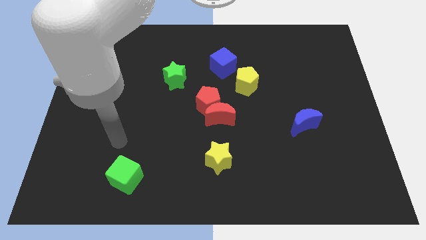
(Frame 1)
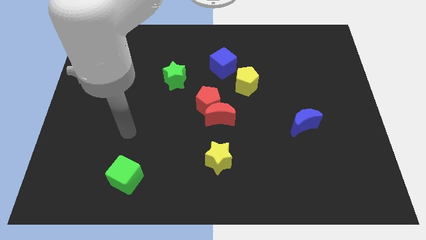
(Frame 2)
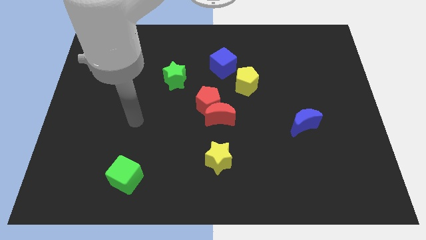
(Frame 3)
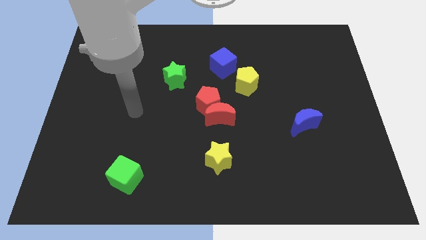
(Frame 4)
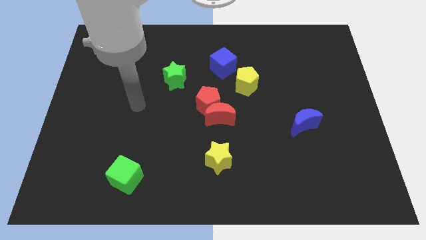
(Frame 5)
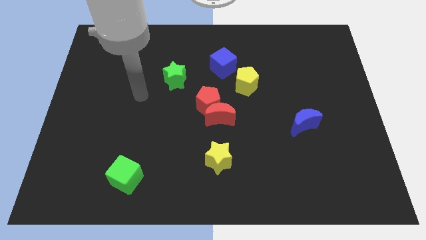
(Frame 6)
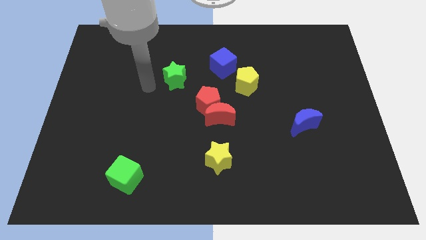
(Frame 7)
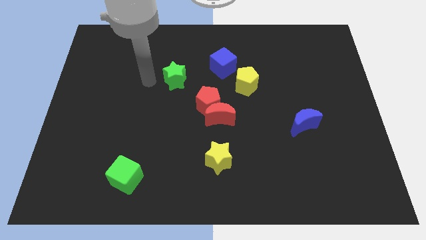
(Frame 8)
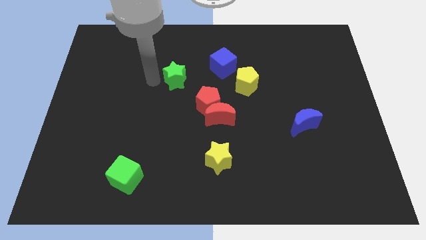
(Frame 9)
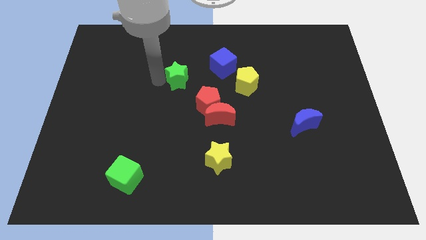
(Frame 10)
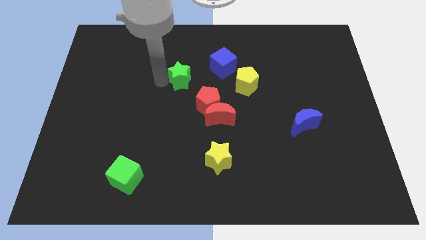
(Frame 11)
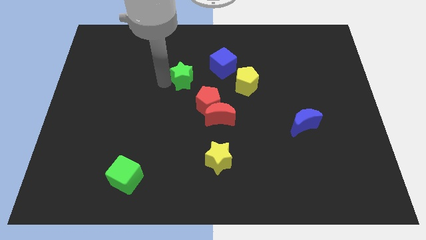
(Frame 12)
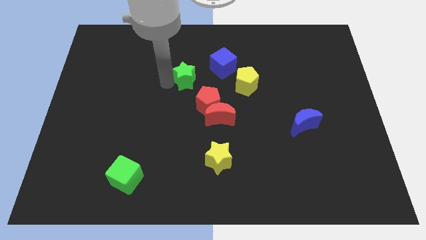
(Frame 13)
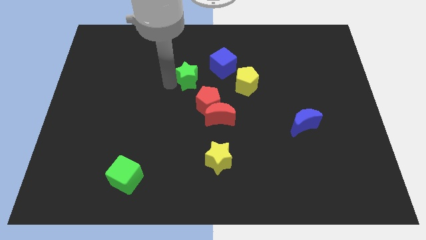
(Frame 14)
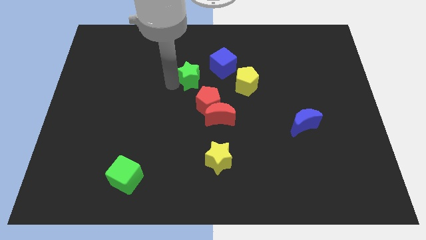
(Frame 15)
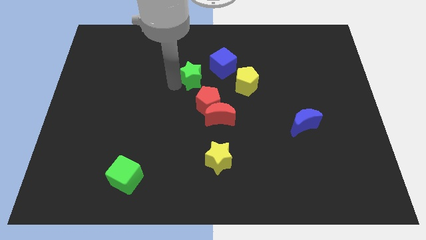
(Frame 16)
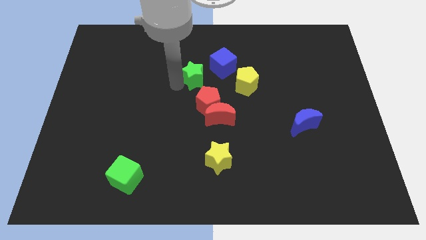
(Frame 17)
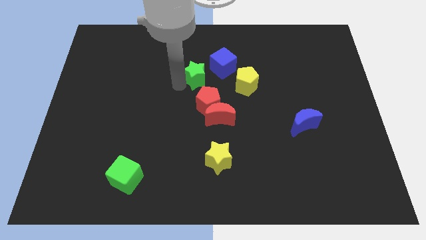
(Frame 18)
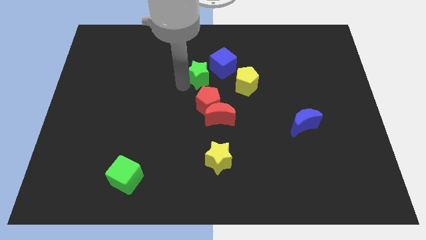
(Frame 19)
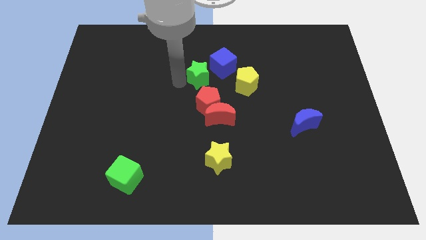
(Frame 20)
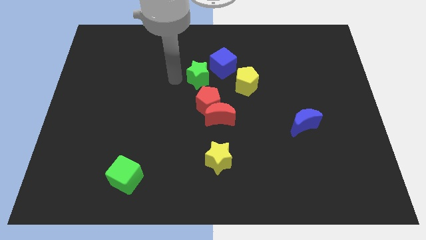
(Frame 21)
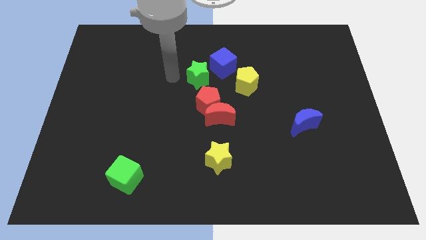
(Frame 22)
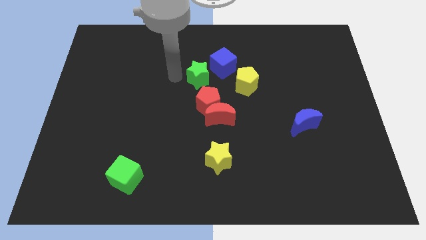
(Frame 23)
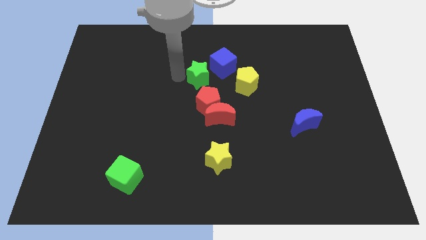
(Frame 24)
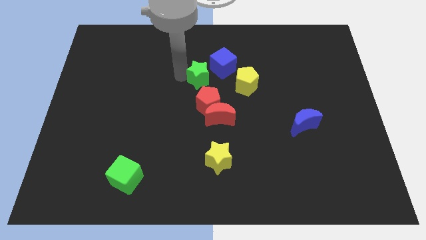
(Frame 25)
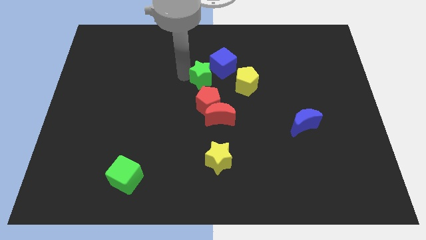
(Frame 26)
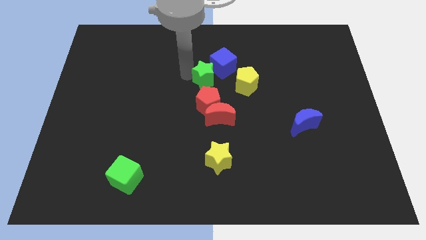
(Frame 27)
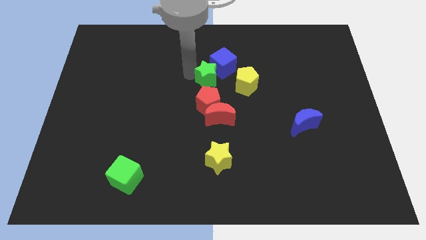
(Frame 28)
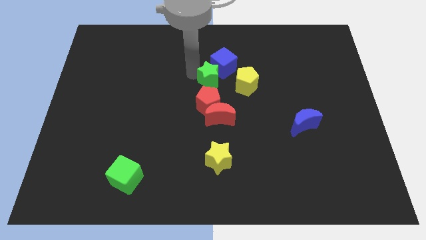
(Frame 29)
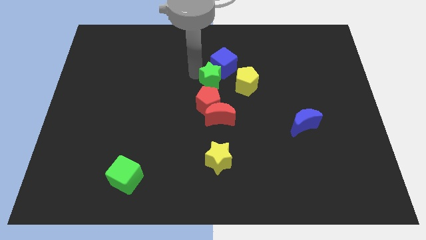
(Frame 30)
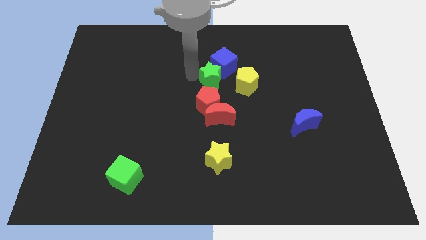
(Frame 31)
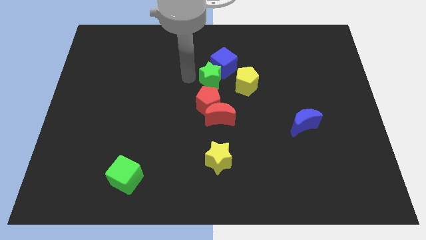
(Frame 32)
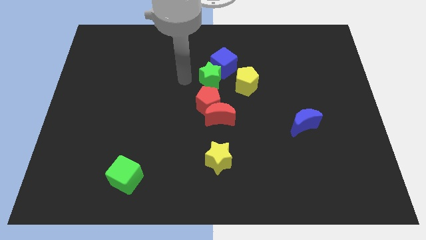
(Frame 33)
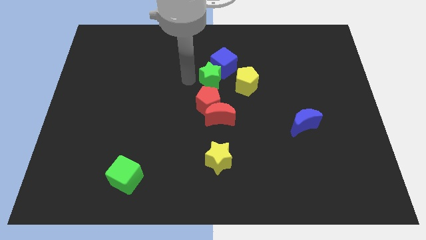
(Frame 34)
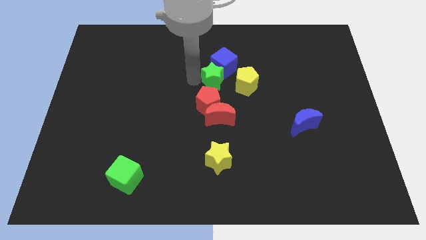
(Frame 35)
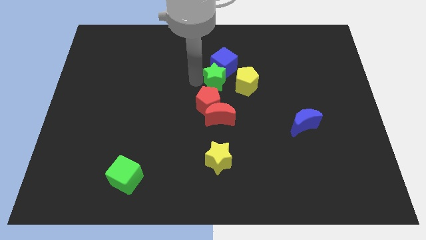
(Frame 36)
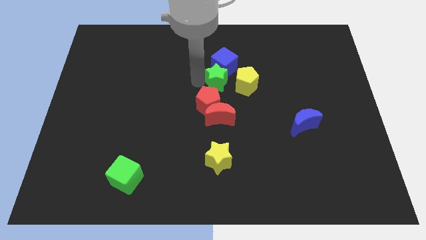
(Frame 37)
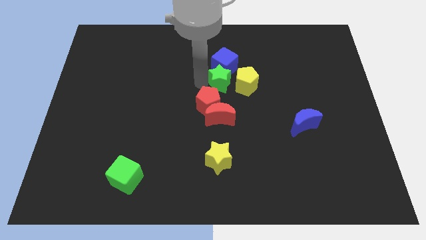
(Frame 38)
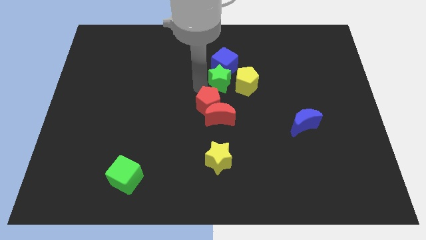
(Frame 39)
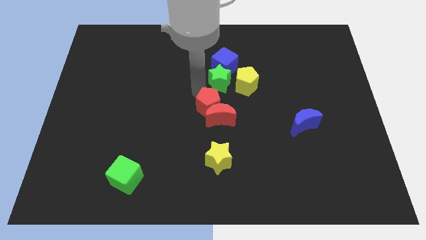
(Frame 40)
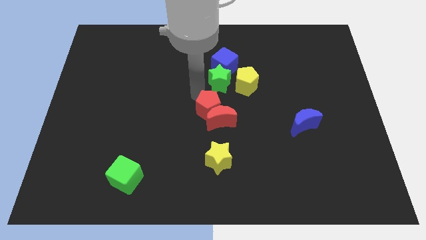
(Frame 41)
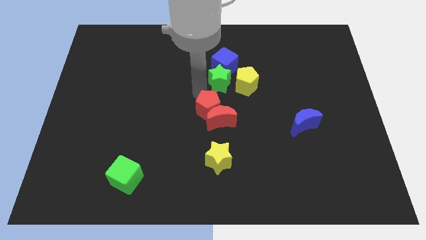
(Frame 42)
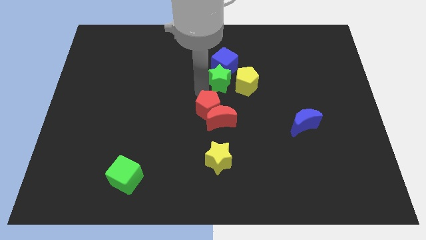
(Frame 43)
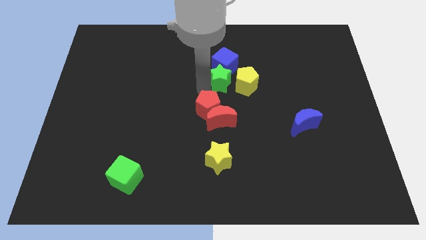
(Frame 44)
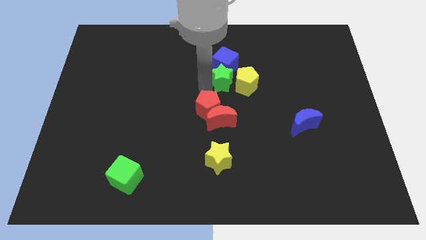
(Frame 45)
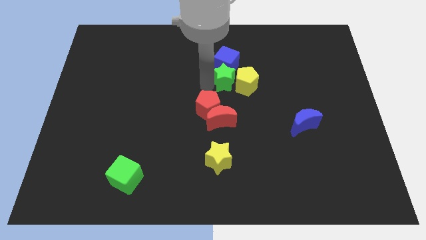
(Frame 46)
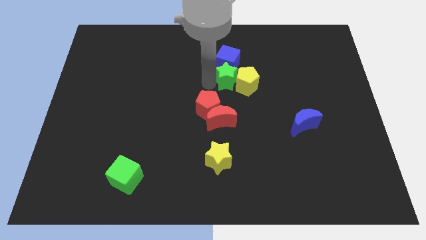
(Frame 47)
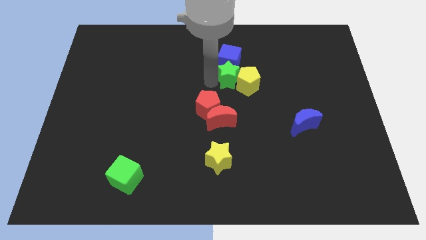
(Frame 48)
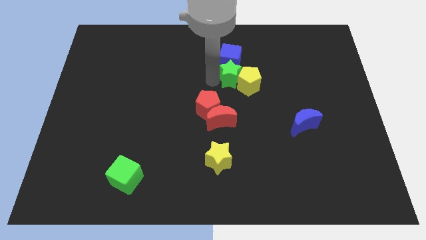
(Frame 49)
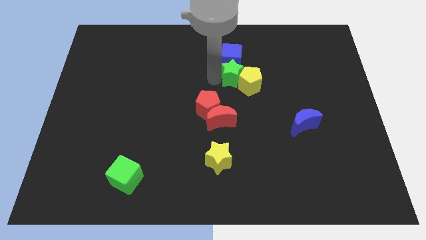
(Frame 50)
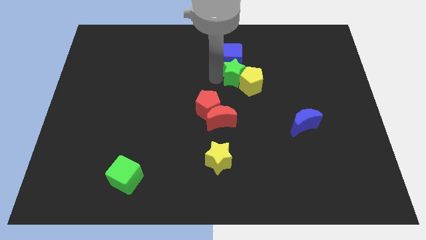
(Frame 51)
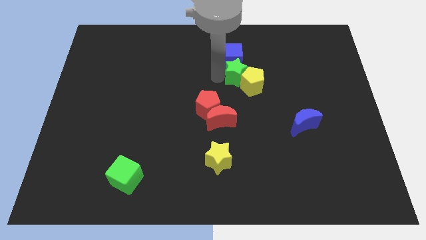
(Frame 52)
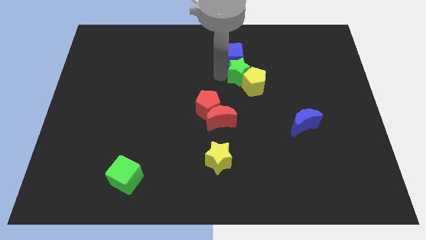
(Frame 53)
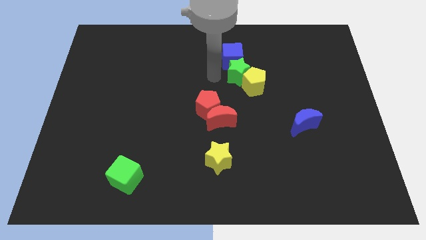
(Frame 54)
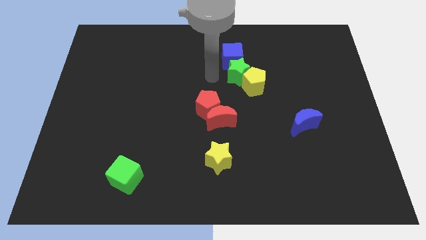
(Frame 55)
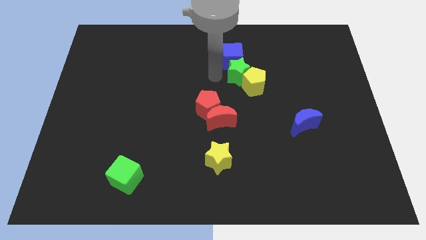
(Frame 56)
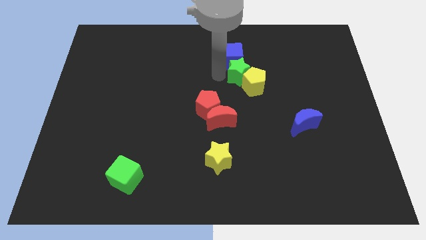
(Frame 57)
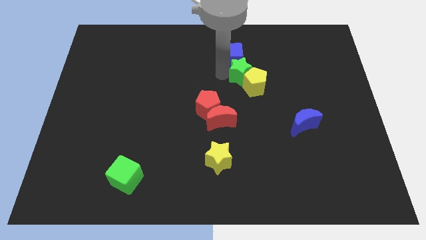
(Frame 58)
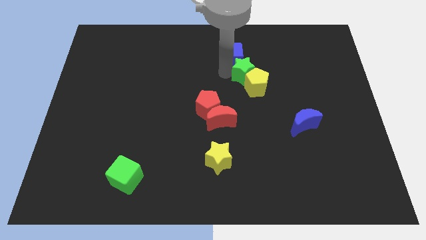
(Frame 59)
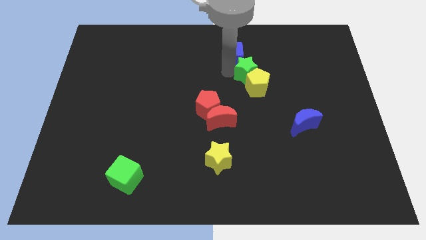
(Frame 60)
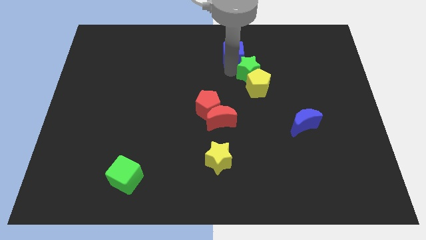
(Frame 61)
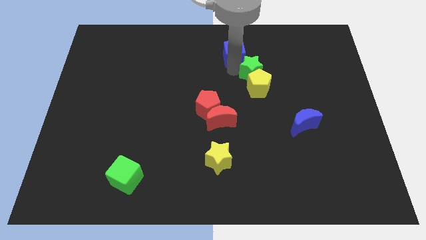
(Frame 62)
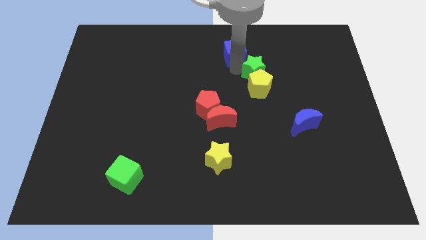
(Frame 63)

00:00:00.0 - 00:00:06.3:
push the green star to the right

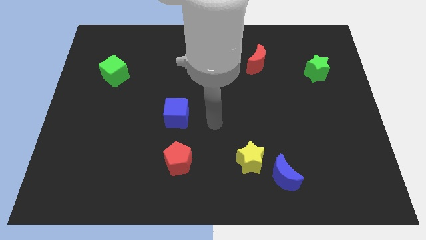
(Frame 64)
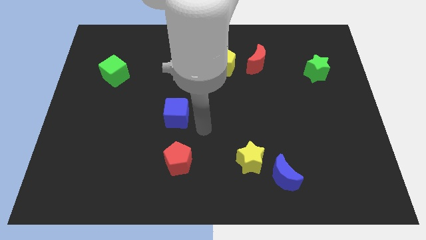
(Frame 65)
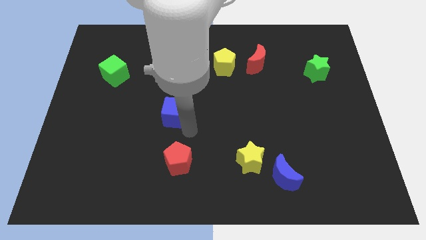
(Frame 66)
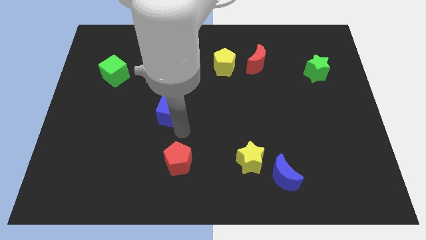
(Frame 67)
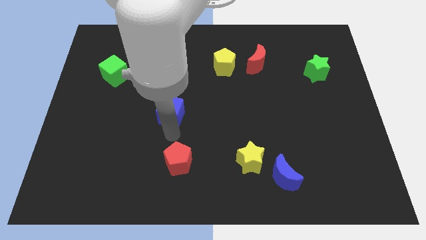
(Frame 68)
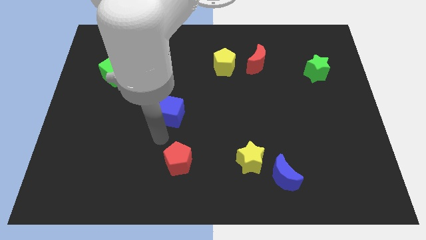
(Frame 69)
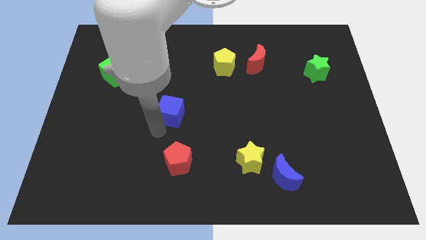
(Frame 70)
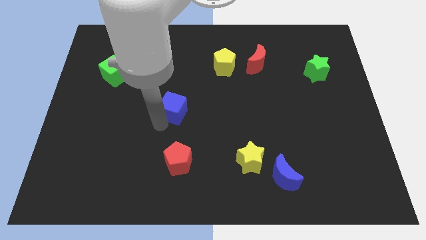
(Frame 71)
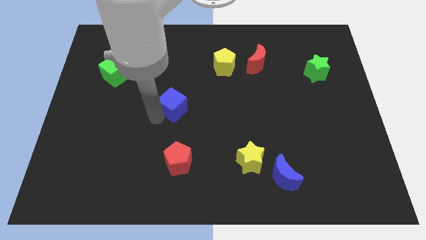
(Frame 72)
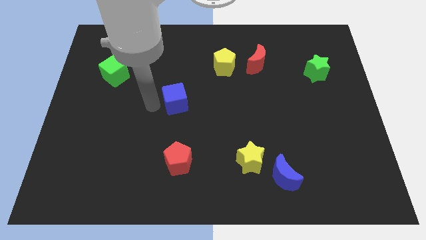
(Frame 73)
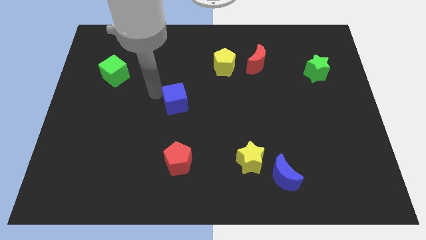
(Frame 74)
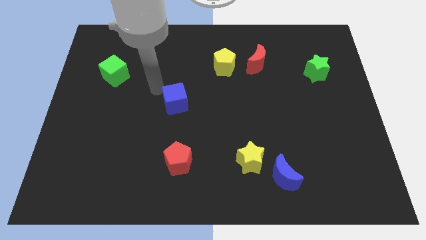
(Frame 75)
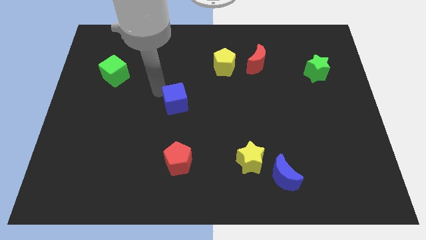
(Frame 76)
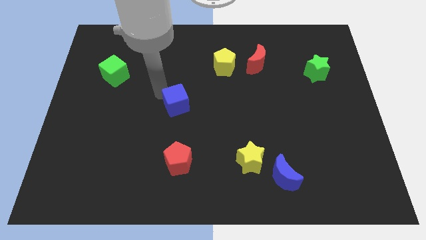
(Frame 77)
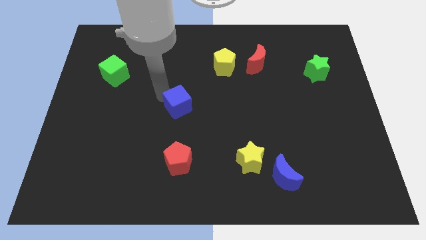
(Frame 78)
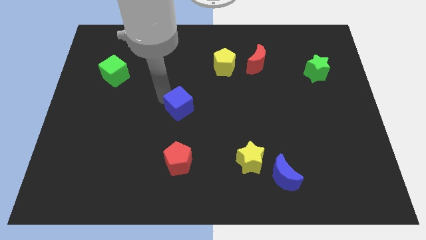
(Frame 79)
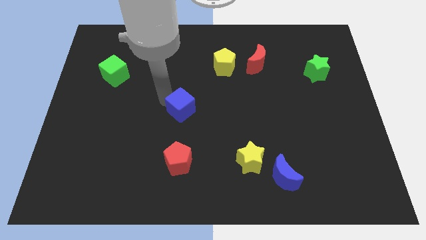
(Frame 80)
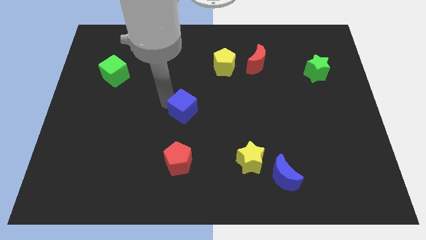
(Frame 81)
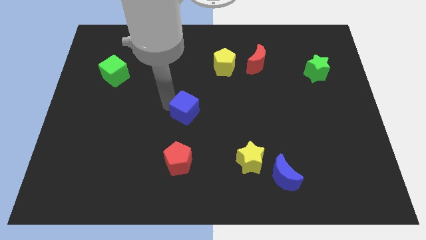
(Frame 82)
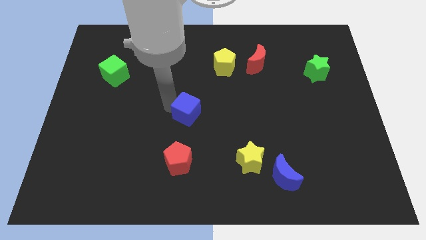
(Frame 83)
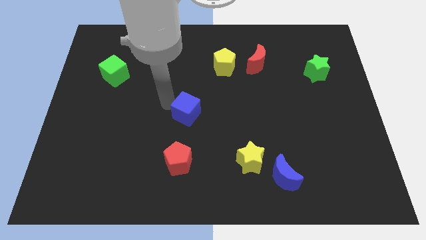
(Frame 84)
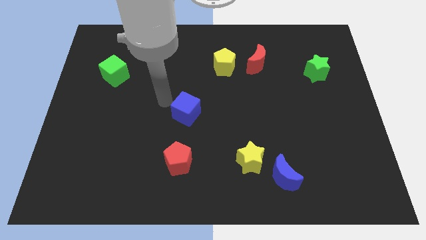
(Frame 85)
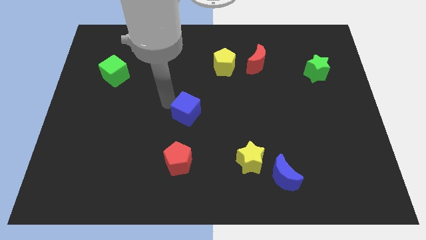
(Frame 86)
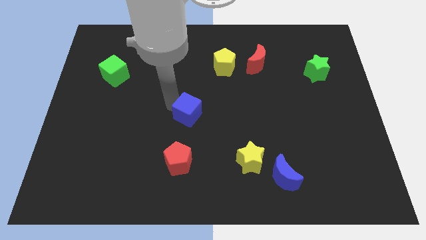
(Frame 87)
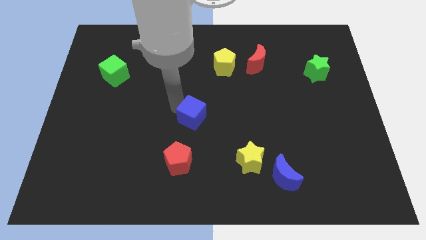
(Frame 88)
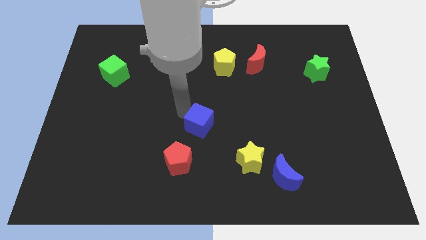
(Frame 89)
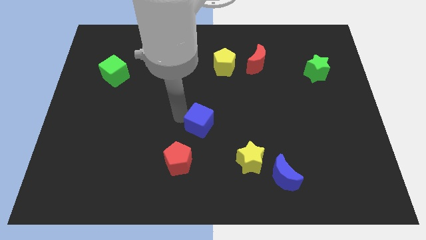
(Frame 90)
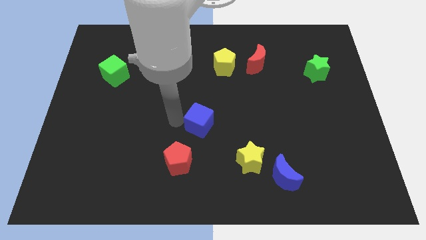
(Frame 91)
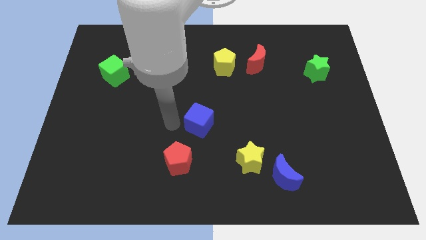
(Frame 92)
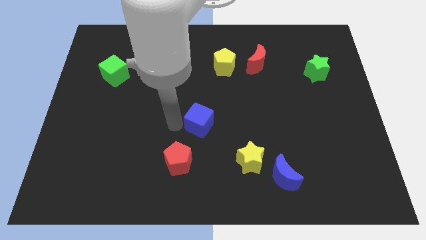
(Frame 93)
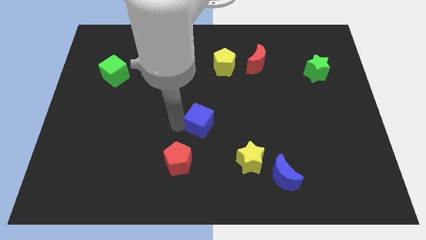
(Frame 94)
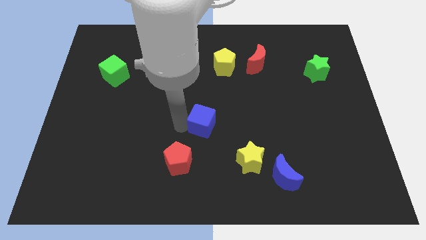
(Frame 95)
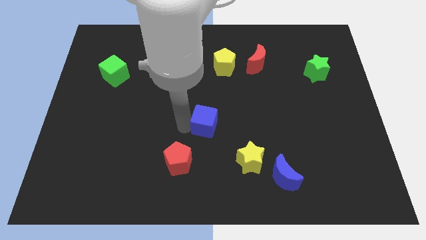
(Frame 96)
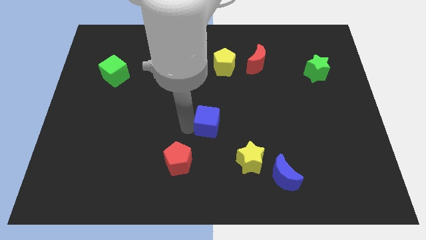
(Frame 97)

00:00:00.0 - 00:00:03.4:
push the blue cube to the right a bit
